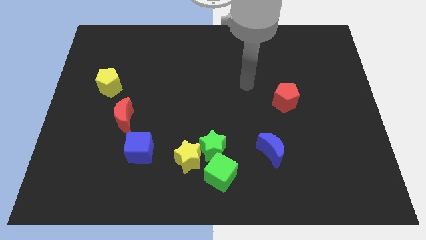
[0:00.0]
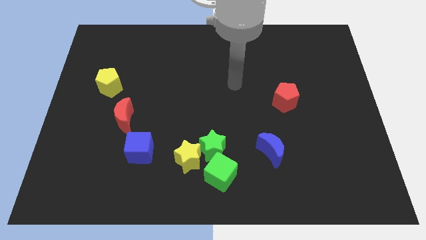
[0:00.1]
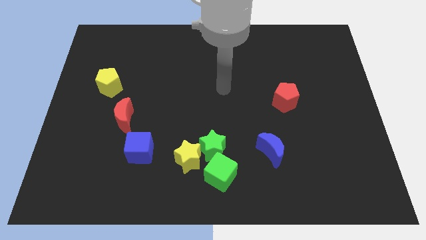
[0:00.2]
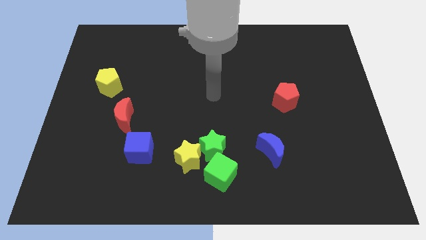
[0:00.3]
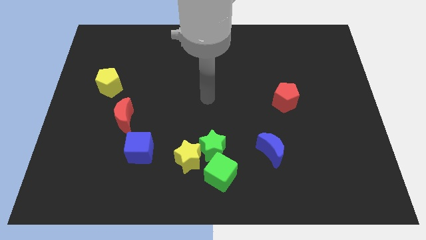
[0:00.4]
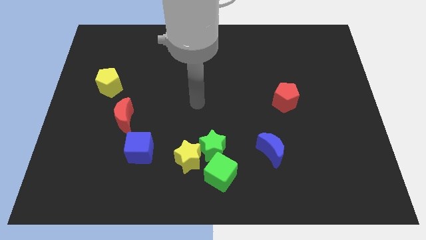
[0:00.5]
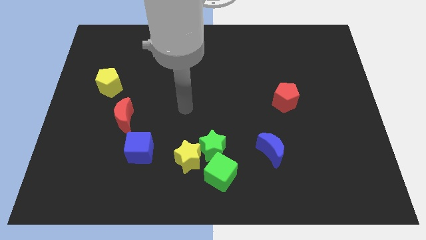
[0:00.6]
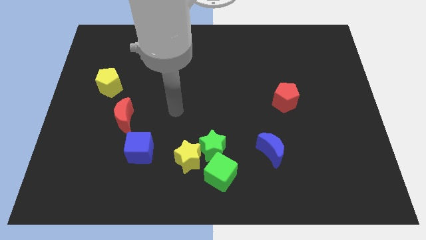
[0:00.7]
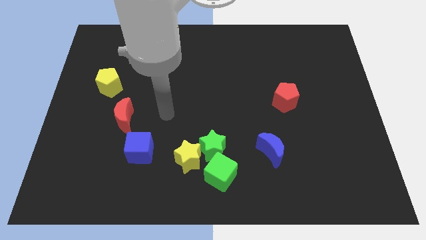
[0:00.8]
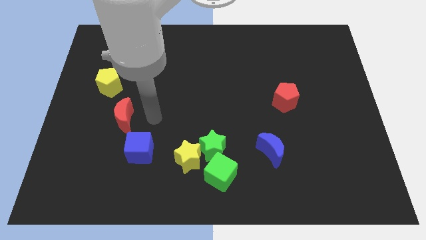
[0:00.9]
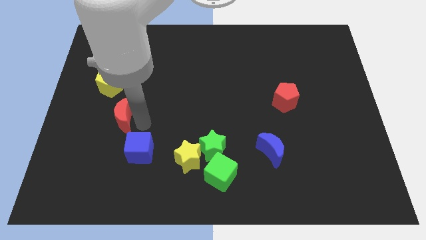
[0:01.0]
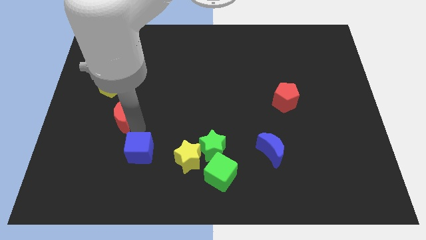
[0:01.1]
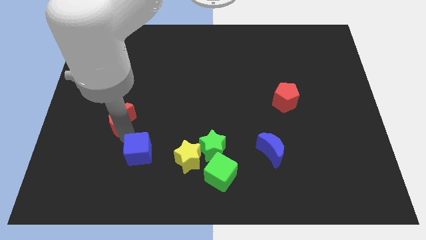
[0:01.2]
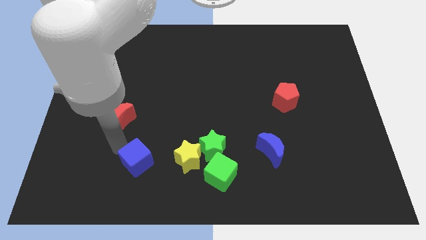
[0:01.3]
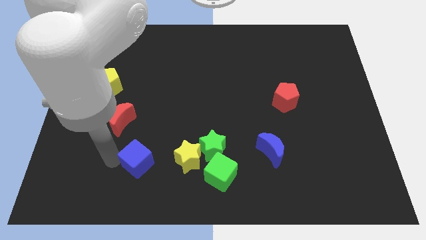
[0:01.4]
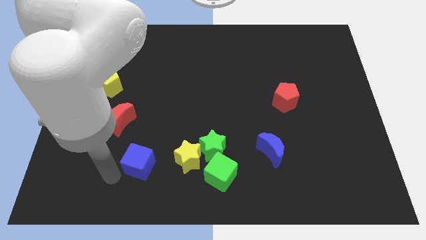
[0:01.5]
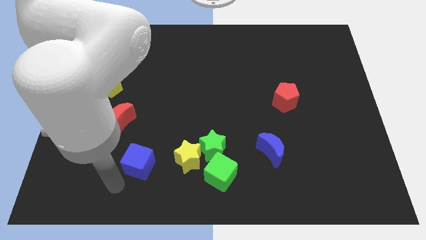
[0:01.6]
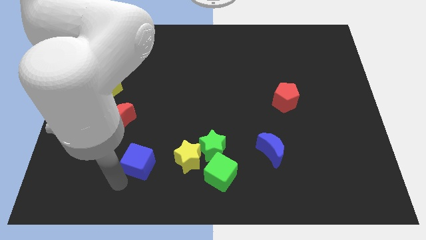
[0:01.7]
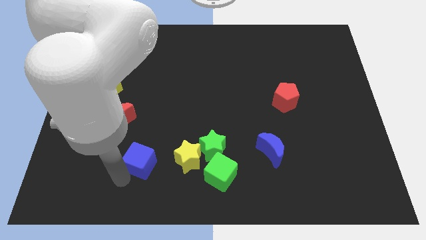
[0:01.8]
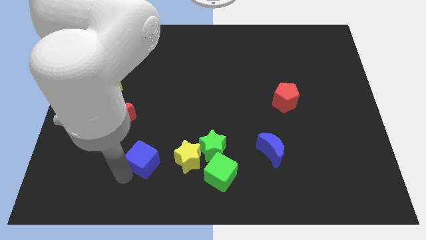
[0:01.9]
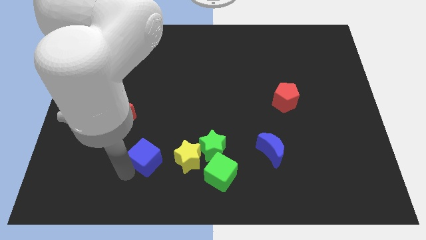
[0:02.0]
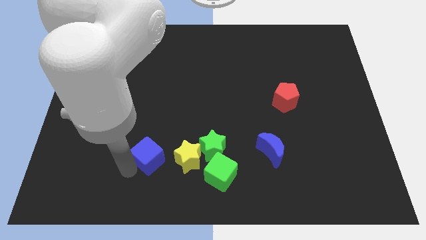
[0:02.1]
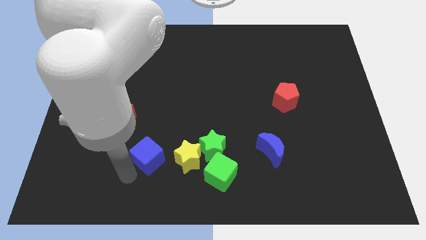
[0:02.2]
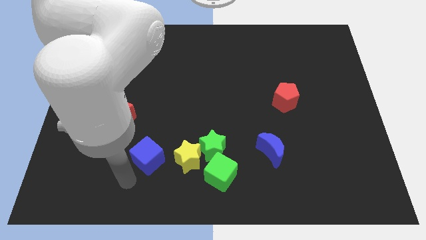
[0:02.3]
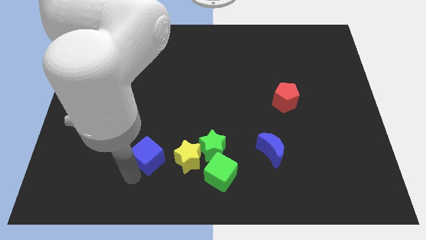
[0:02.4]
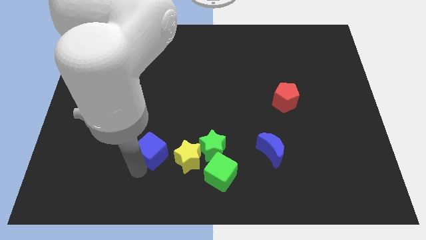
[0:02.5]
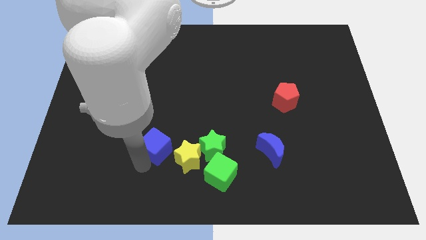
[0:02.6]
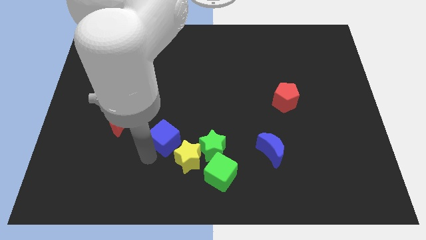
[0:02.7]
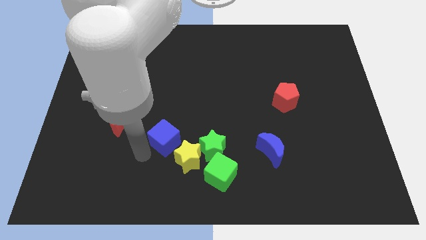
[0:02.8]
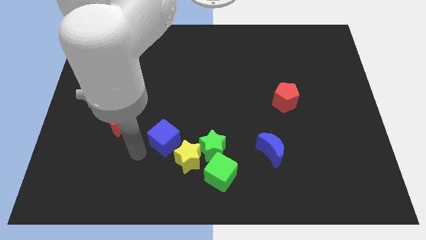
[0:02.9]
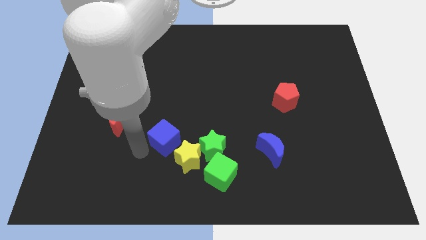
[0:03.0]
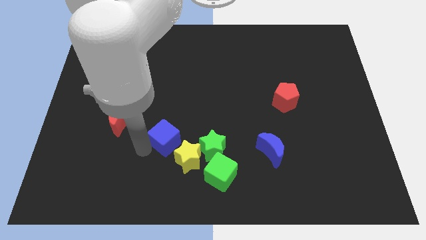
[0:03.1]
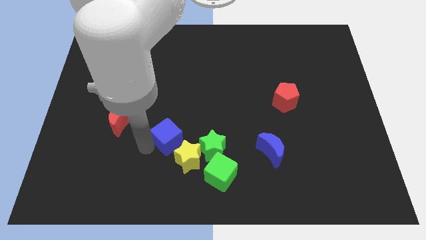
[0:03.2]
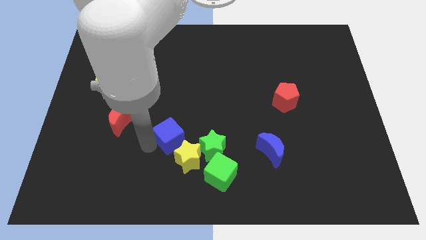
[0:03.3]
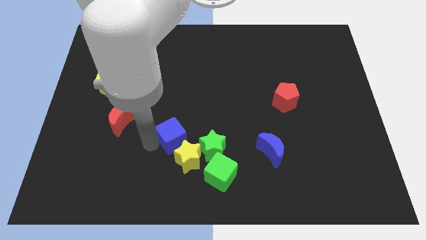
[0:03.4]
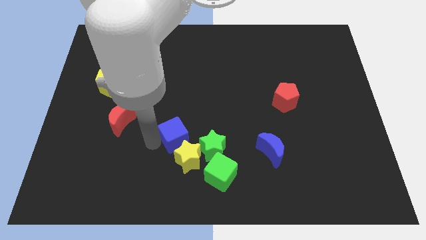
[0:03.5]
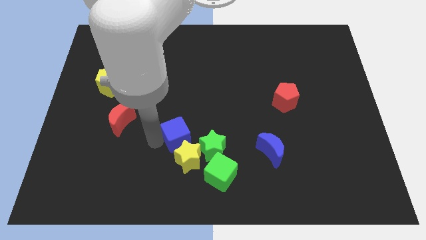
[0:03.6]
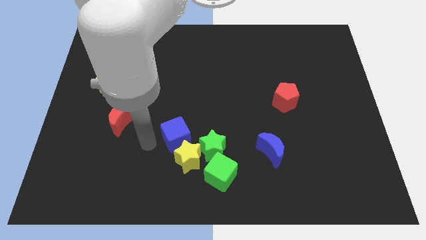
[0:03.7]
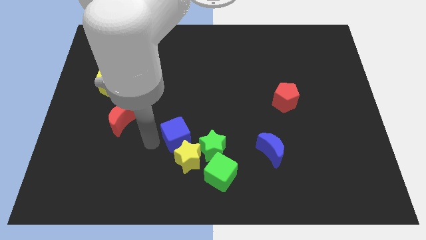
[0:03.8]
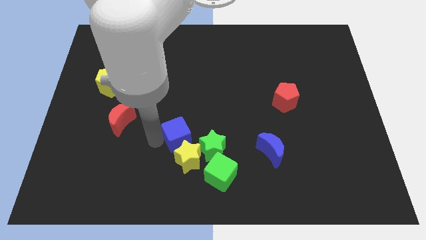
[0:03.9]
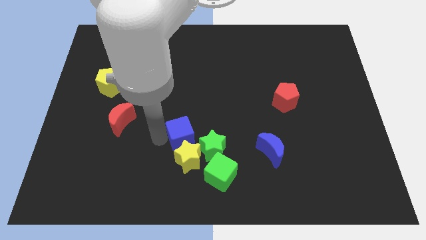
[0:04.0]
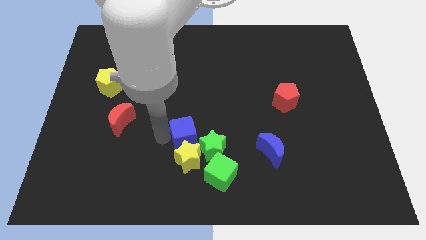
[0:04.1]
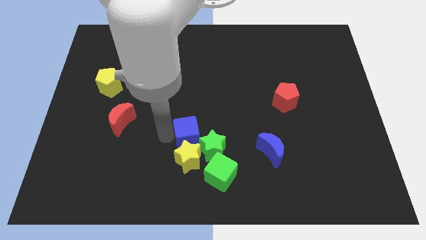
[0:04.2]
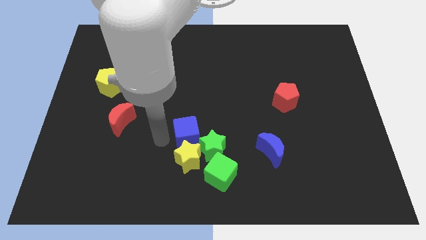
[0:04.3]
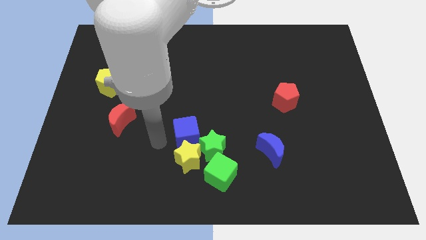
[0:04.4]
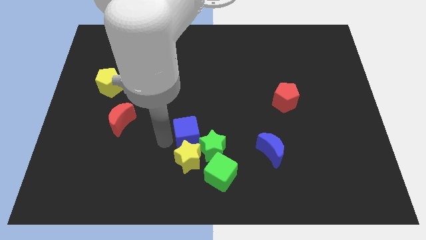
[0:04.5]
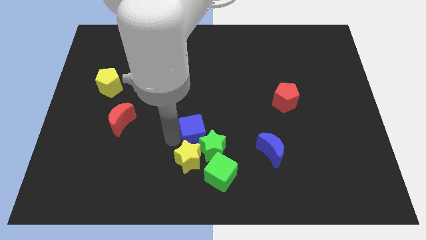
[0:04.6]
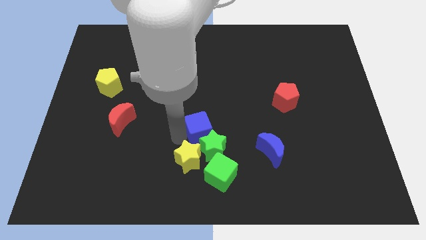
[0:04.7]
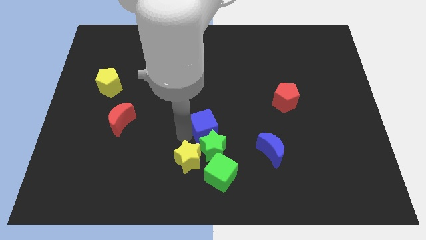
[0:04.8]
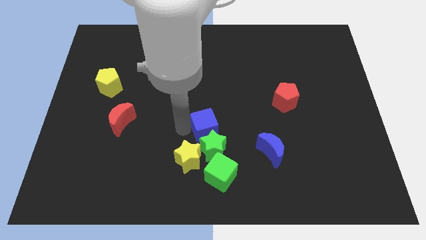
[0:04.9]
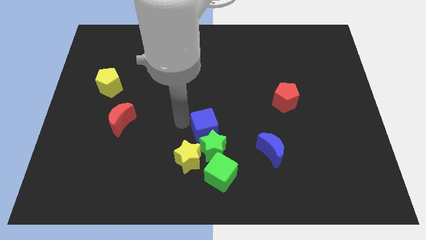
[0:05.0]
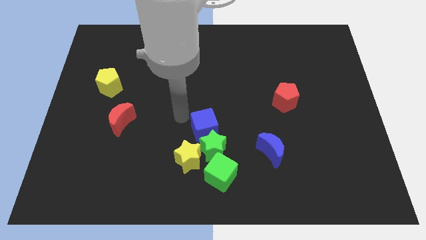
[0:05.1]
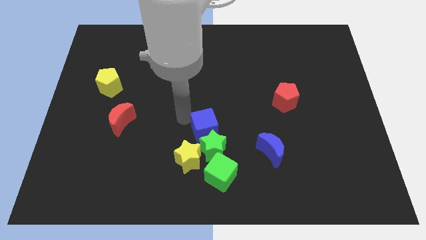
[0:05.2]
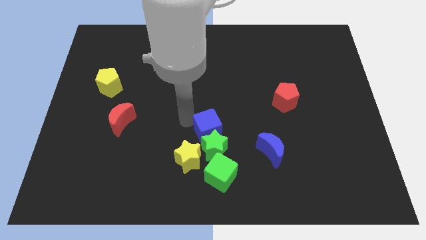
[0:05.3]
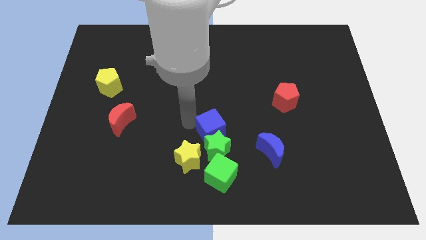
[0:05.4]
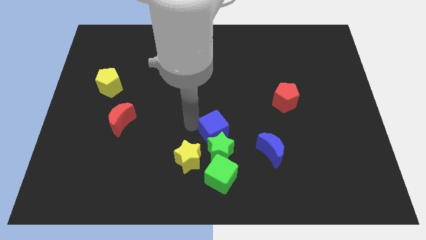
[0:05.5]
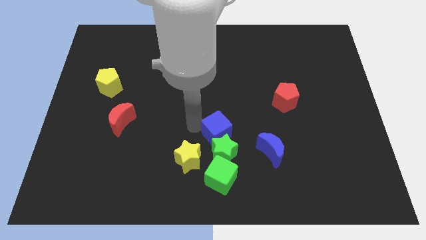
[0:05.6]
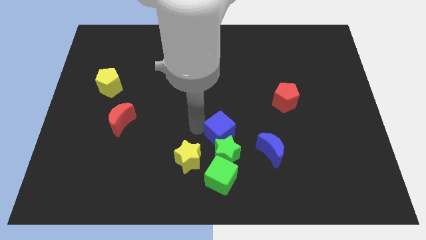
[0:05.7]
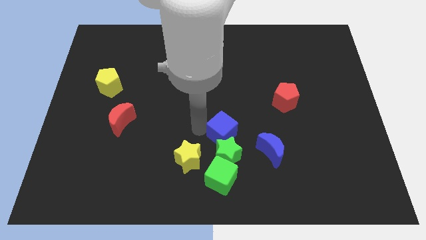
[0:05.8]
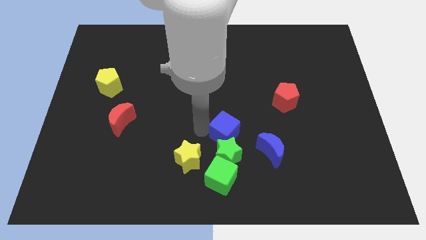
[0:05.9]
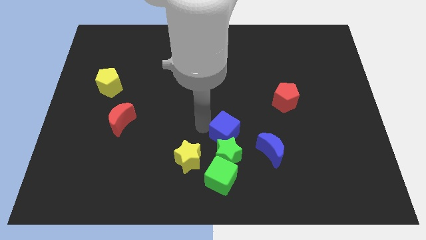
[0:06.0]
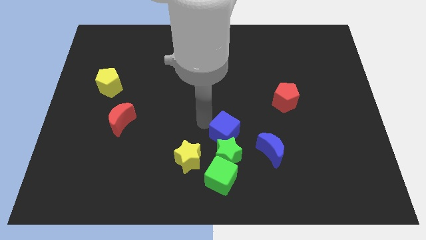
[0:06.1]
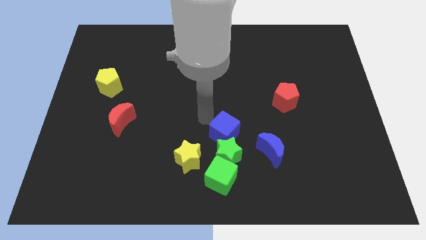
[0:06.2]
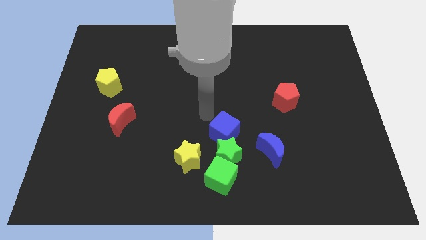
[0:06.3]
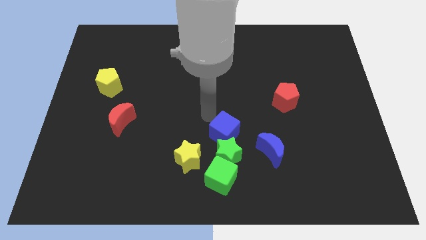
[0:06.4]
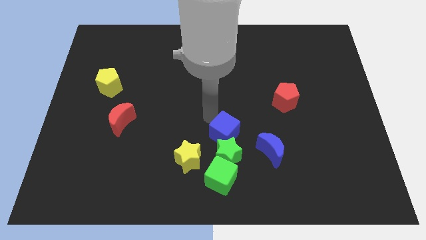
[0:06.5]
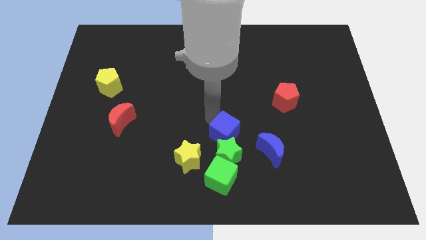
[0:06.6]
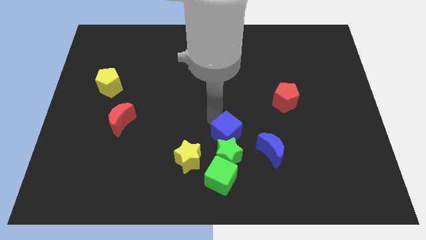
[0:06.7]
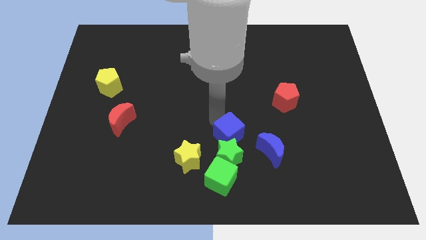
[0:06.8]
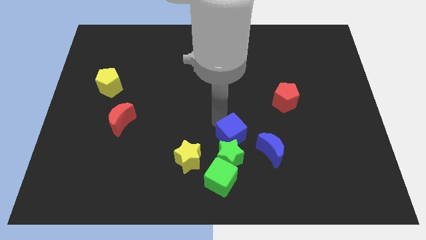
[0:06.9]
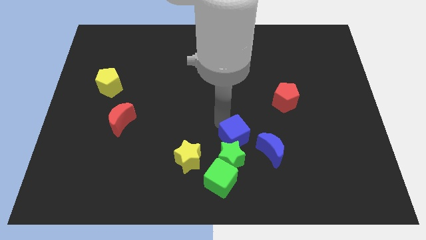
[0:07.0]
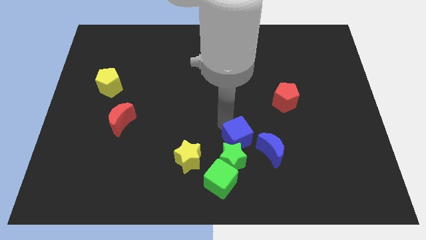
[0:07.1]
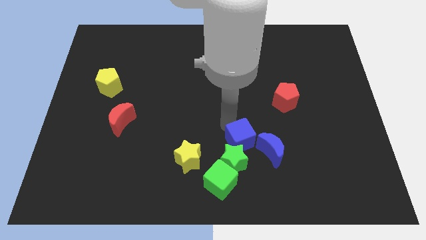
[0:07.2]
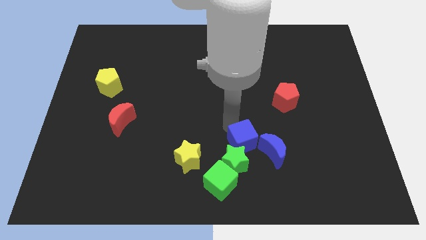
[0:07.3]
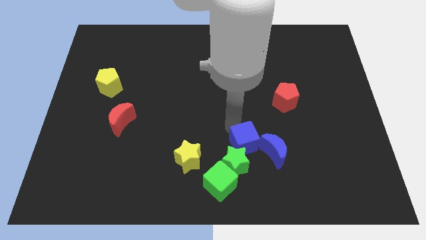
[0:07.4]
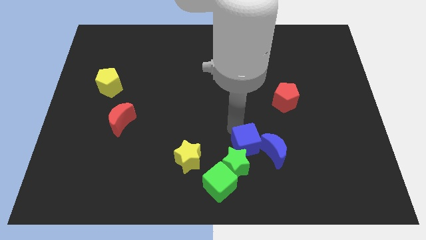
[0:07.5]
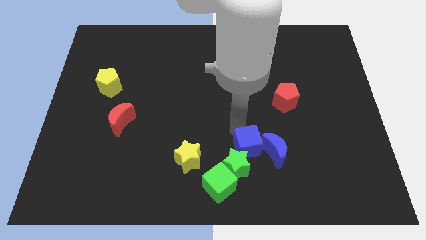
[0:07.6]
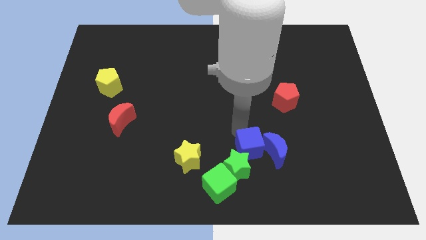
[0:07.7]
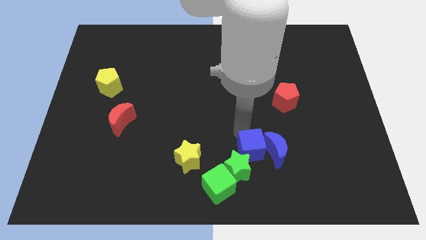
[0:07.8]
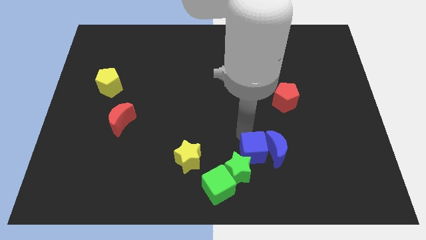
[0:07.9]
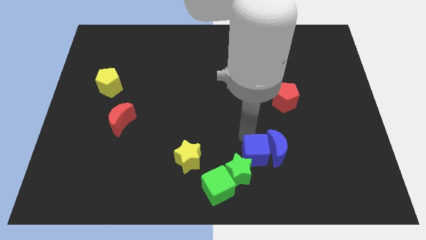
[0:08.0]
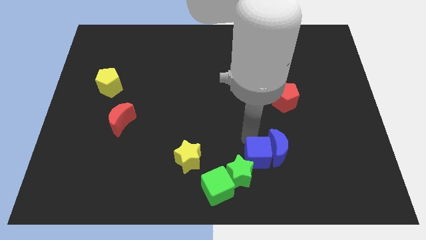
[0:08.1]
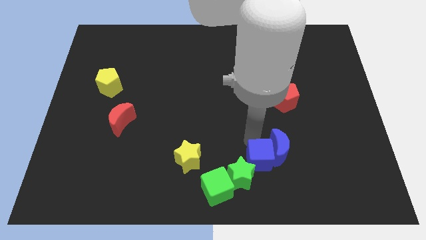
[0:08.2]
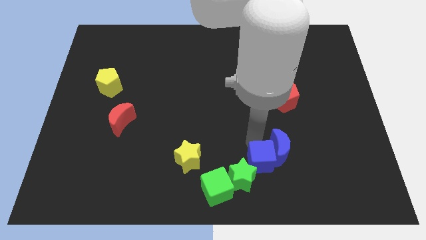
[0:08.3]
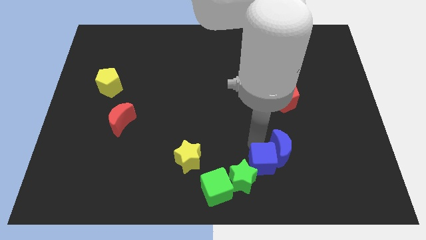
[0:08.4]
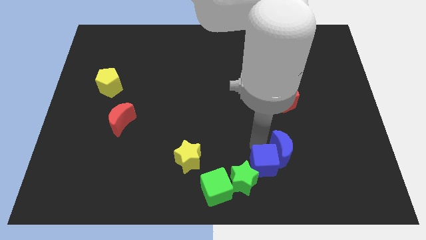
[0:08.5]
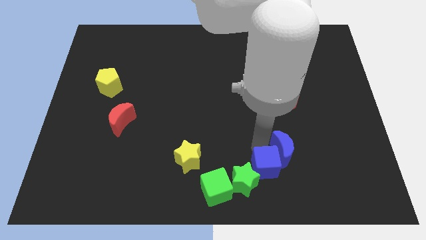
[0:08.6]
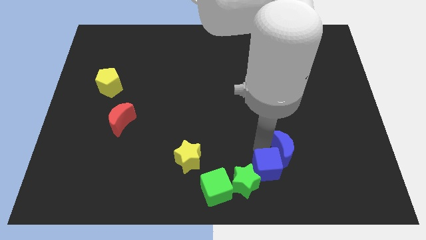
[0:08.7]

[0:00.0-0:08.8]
move the blue cube just right of the green cube
